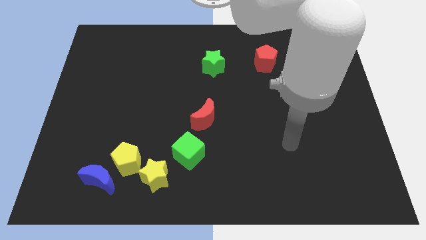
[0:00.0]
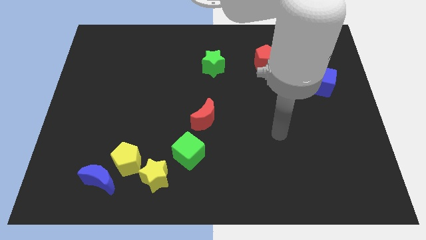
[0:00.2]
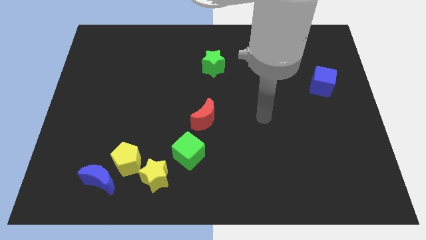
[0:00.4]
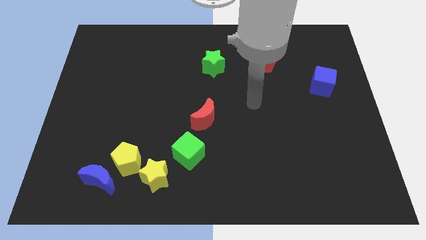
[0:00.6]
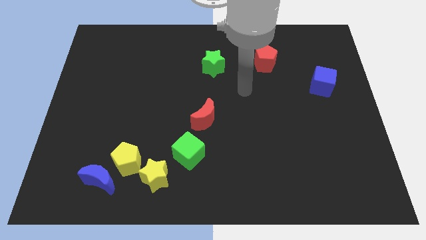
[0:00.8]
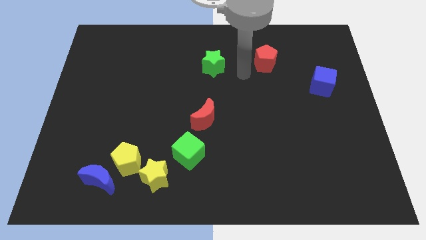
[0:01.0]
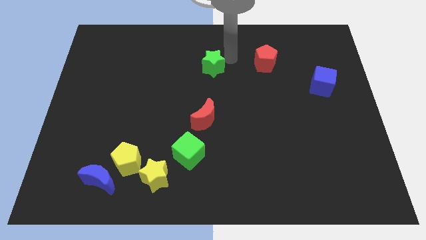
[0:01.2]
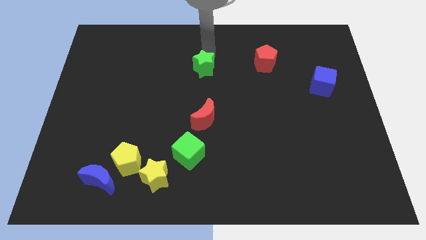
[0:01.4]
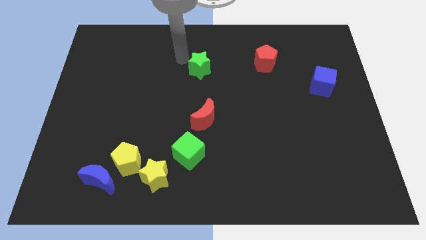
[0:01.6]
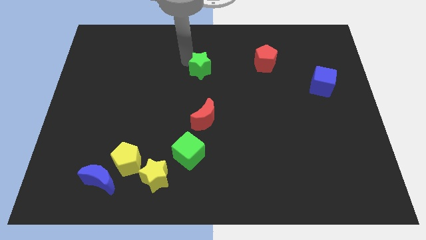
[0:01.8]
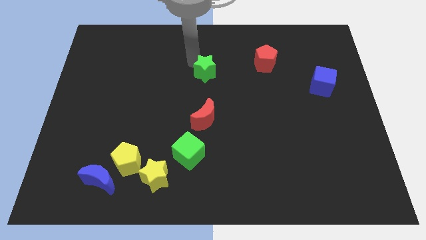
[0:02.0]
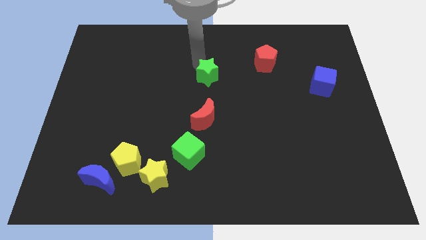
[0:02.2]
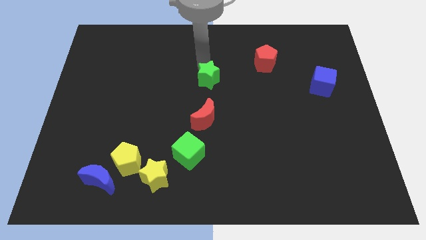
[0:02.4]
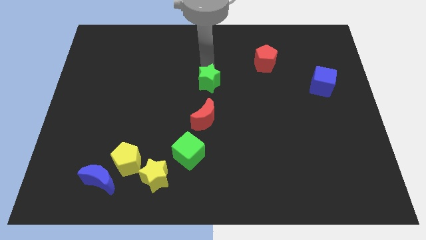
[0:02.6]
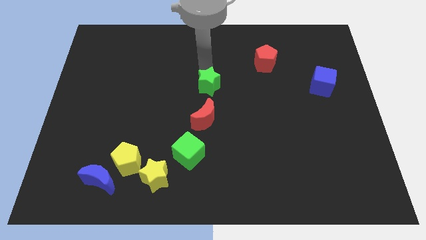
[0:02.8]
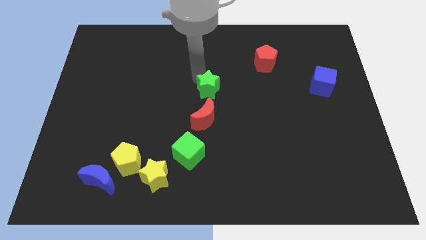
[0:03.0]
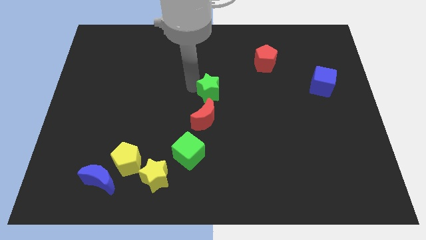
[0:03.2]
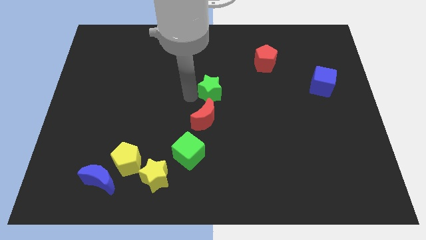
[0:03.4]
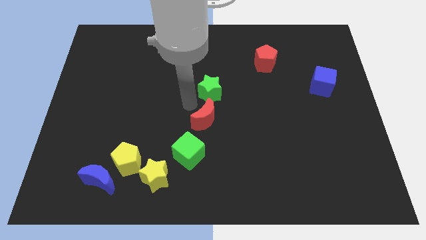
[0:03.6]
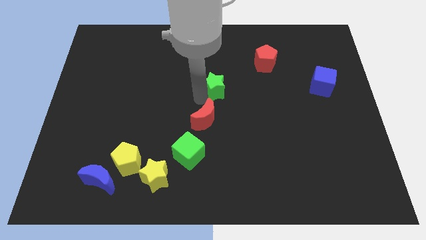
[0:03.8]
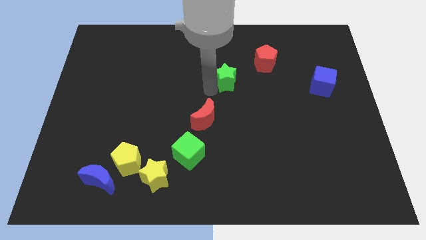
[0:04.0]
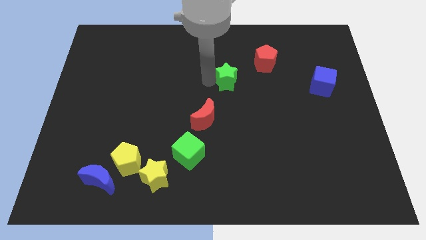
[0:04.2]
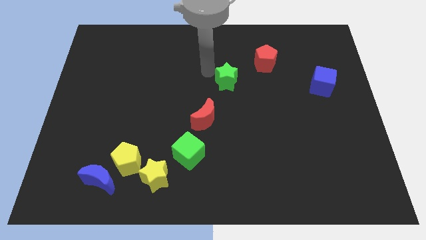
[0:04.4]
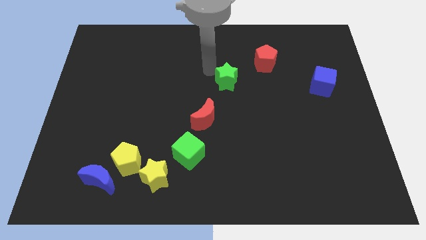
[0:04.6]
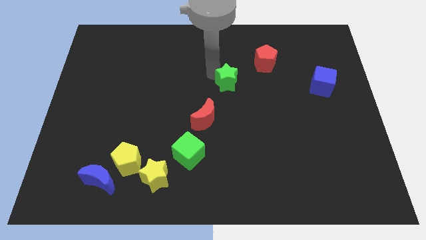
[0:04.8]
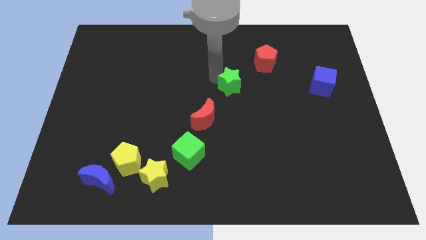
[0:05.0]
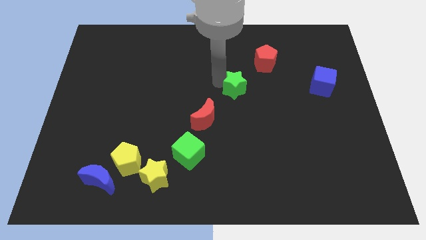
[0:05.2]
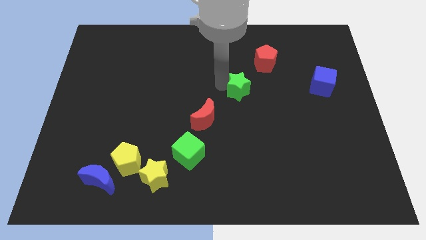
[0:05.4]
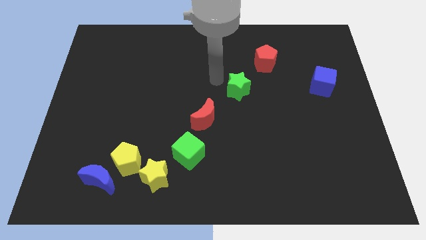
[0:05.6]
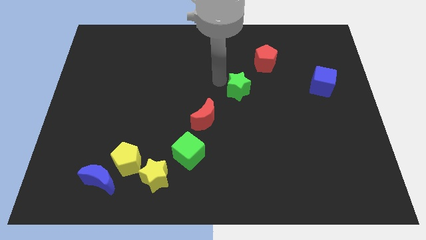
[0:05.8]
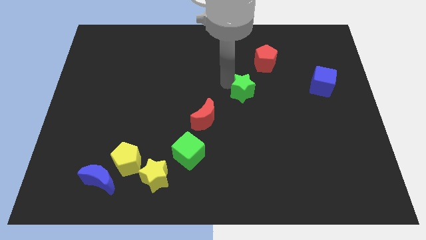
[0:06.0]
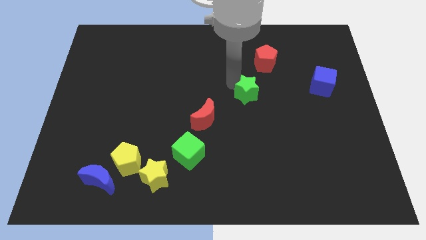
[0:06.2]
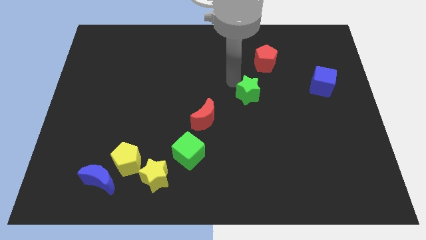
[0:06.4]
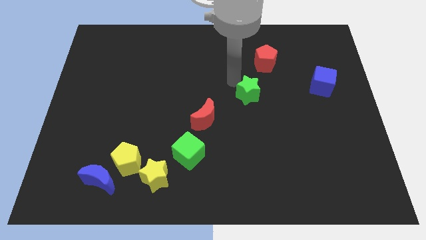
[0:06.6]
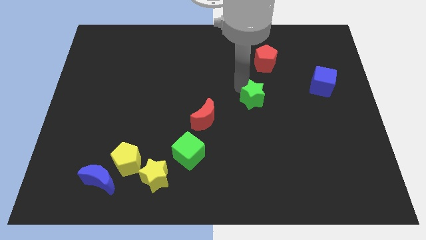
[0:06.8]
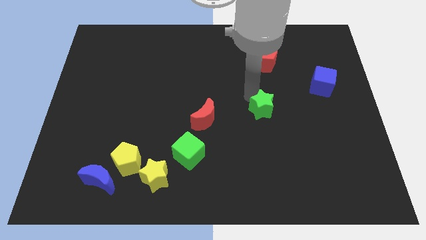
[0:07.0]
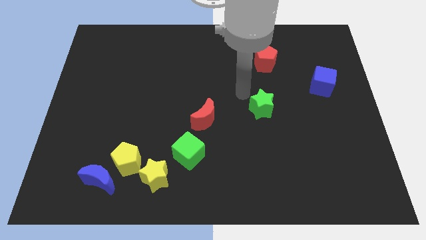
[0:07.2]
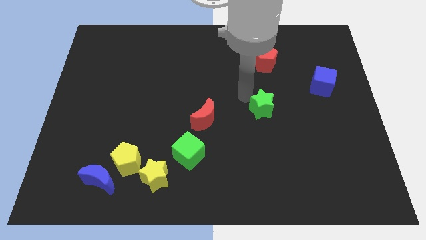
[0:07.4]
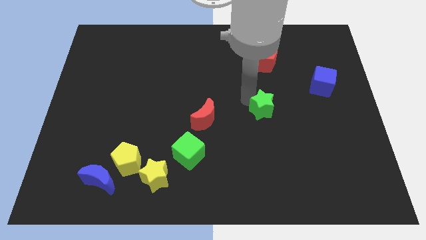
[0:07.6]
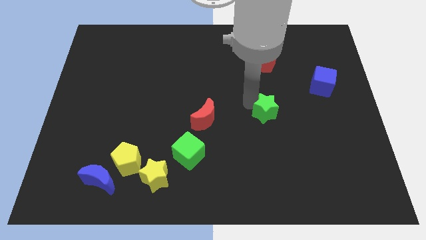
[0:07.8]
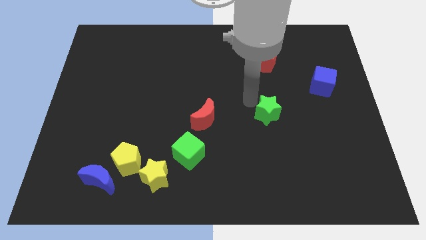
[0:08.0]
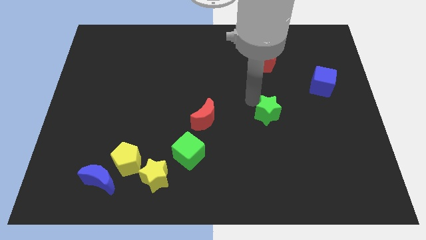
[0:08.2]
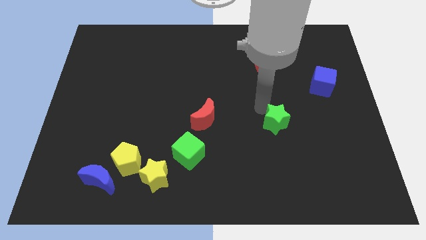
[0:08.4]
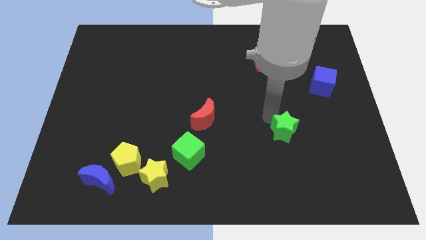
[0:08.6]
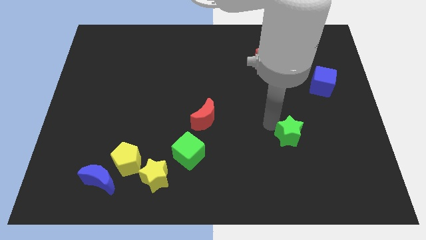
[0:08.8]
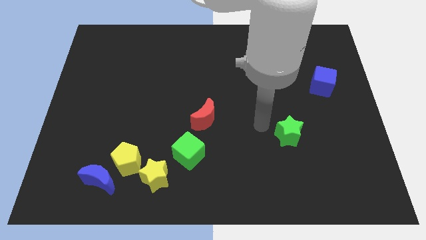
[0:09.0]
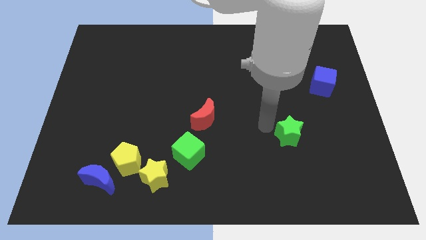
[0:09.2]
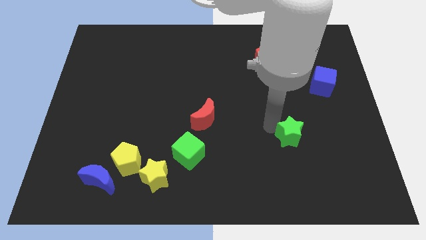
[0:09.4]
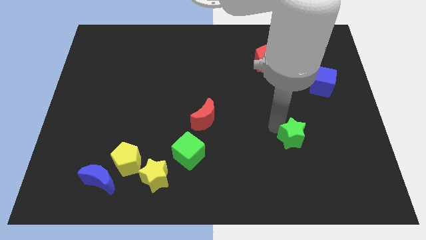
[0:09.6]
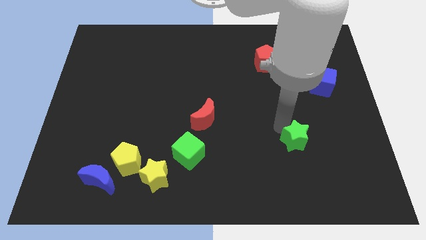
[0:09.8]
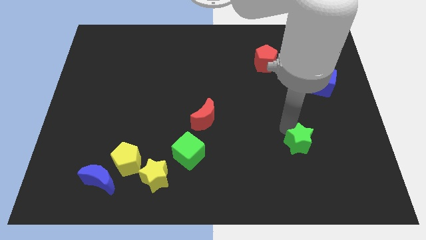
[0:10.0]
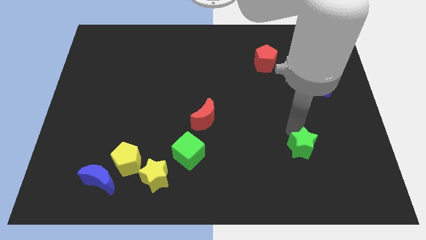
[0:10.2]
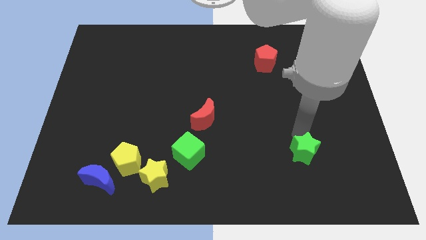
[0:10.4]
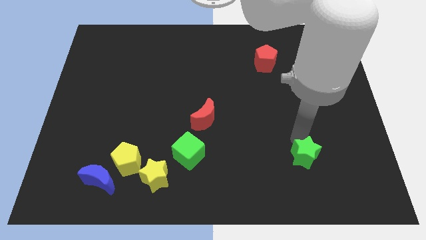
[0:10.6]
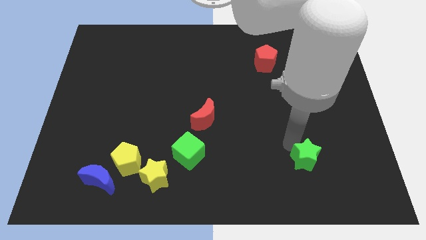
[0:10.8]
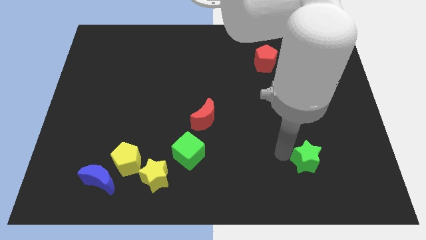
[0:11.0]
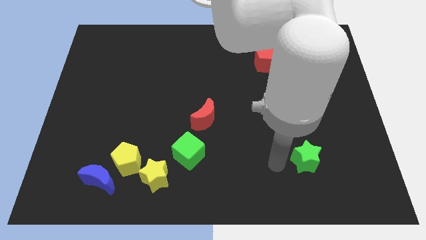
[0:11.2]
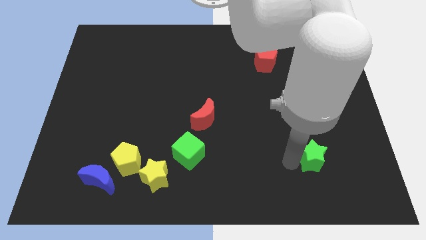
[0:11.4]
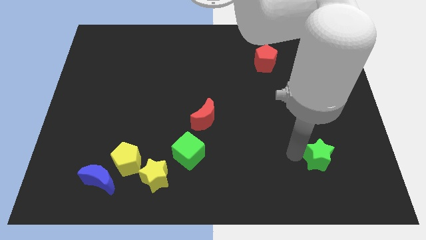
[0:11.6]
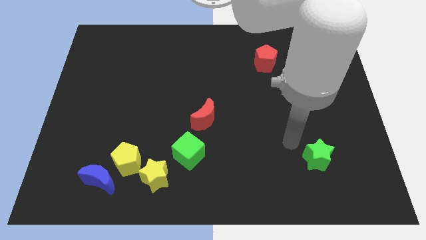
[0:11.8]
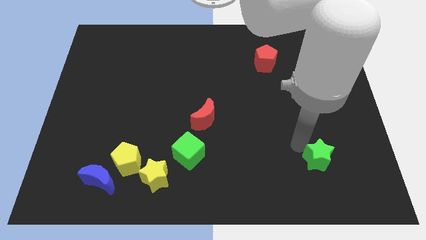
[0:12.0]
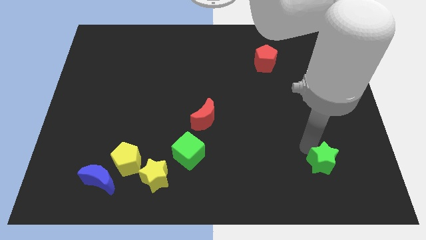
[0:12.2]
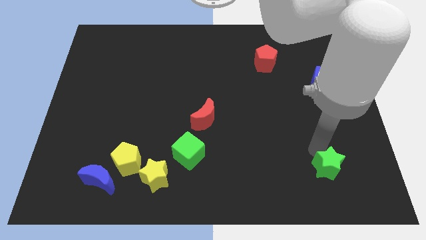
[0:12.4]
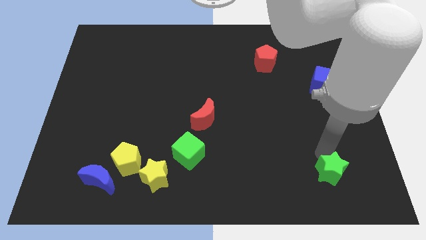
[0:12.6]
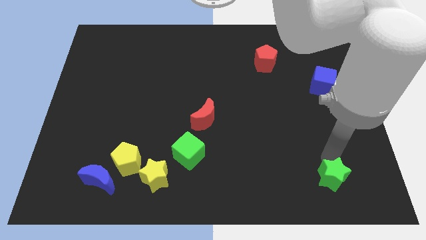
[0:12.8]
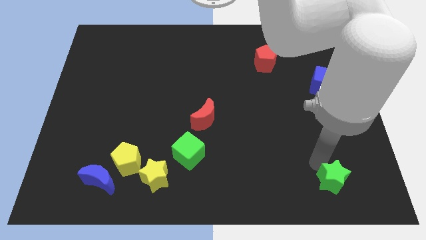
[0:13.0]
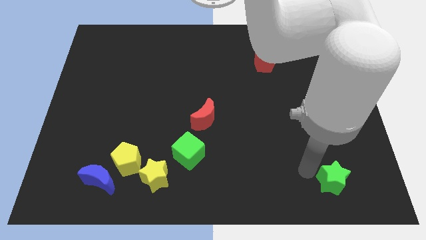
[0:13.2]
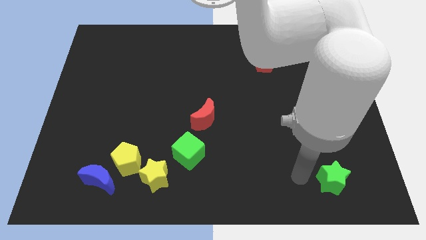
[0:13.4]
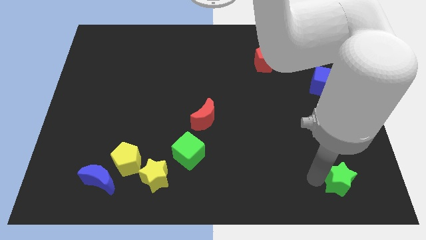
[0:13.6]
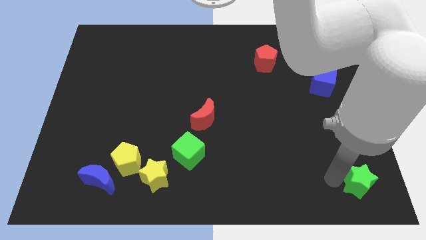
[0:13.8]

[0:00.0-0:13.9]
move the green star to the bottom right of the board
